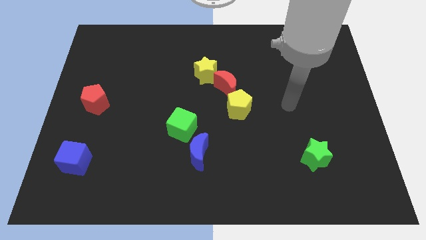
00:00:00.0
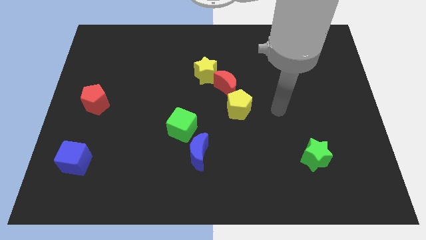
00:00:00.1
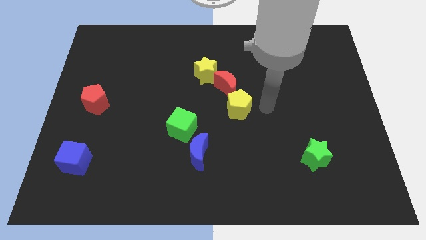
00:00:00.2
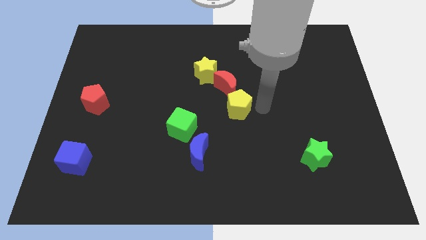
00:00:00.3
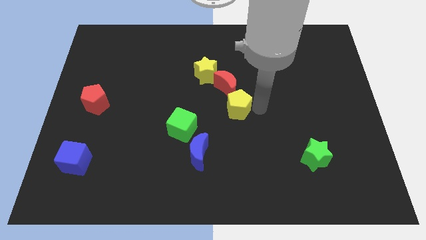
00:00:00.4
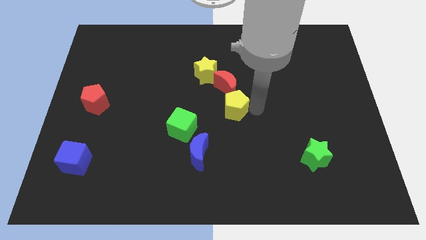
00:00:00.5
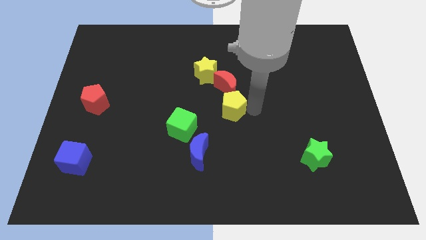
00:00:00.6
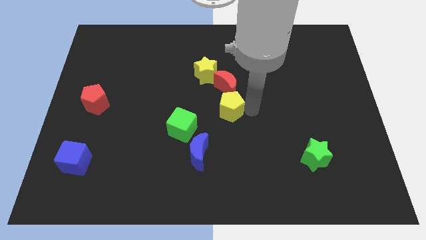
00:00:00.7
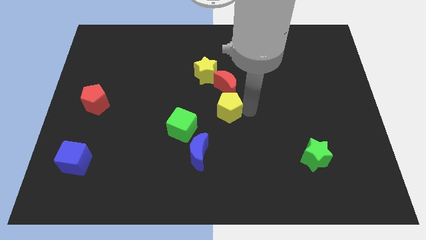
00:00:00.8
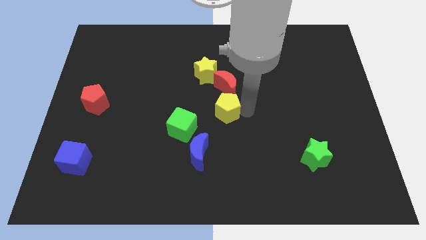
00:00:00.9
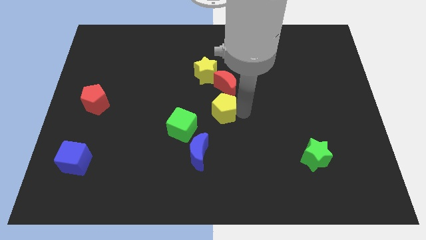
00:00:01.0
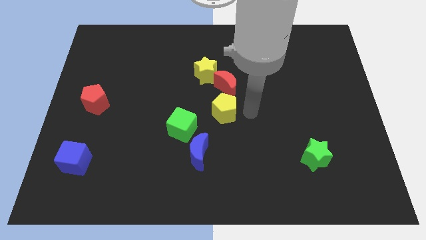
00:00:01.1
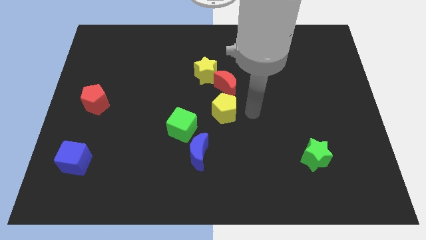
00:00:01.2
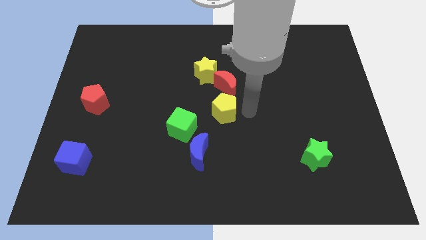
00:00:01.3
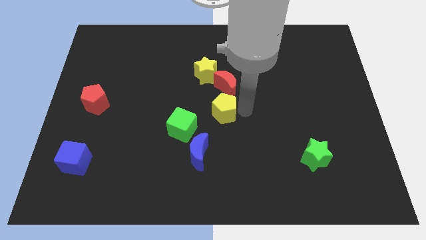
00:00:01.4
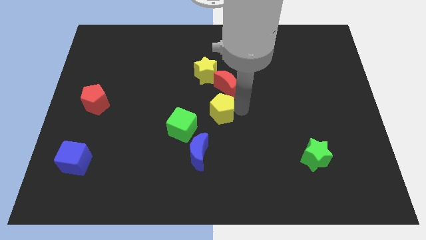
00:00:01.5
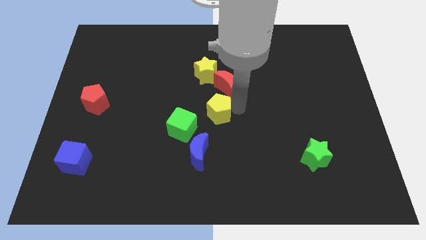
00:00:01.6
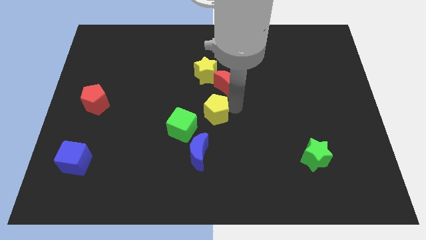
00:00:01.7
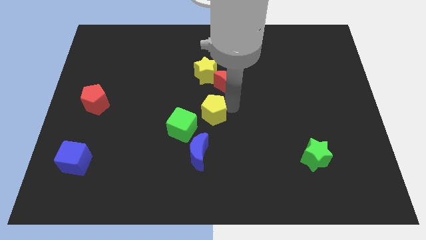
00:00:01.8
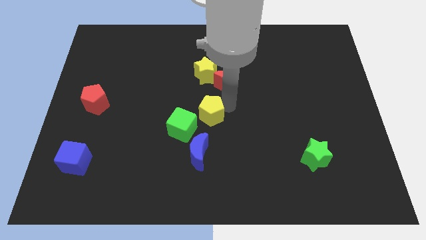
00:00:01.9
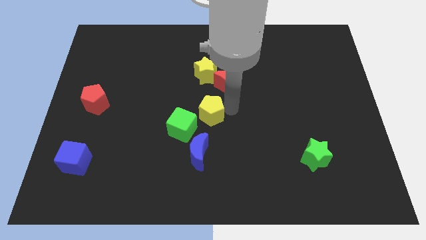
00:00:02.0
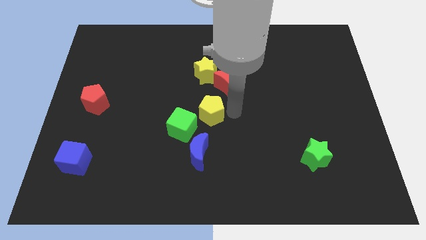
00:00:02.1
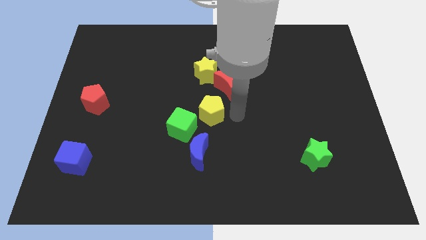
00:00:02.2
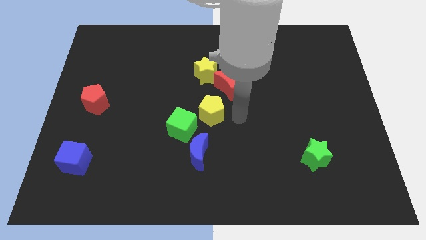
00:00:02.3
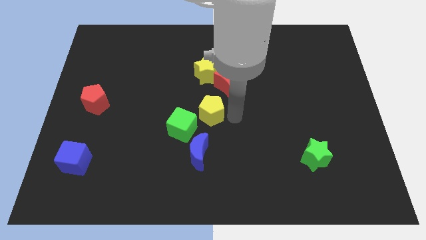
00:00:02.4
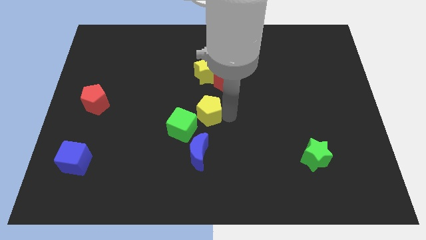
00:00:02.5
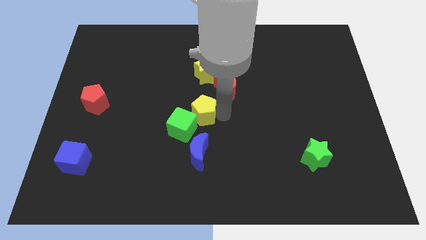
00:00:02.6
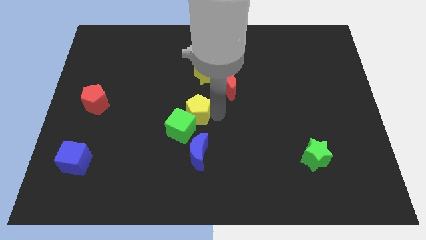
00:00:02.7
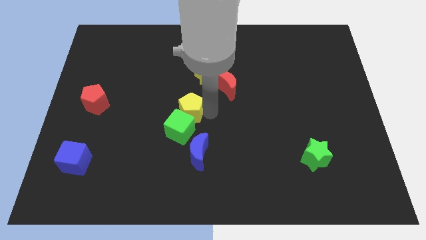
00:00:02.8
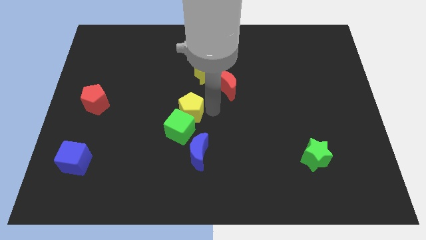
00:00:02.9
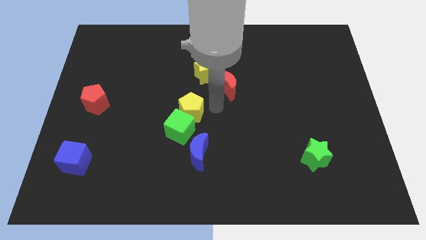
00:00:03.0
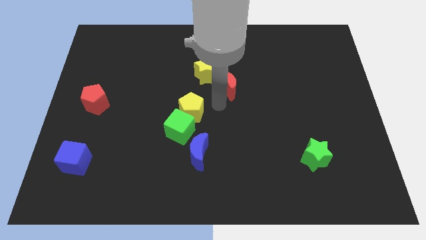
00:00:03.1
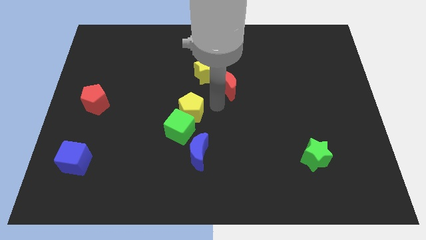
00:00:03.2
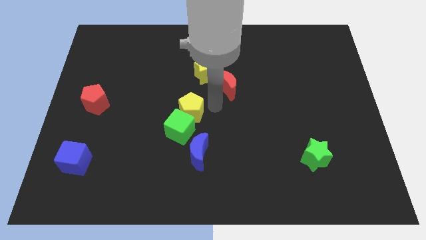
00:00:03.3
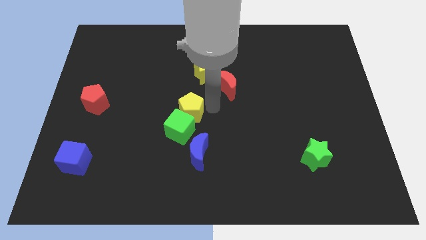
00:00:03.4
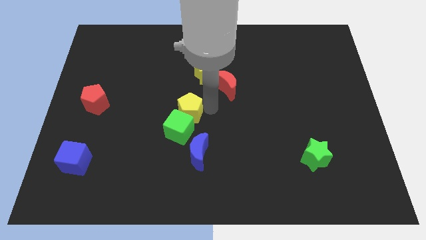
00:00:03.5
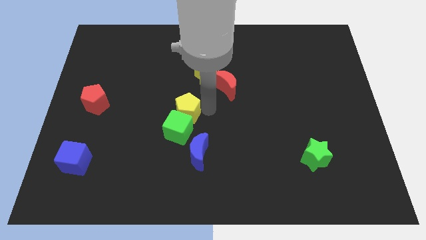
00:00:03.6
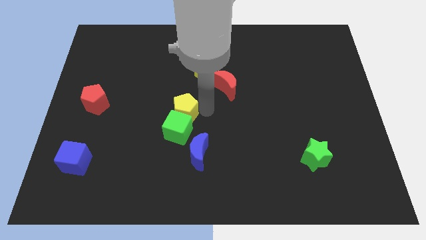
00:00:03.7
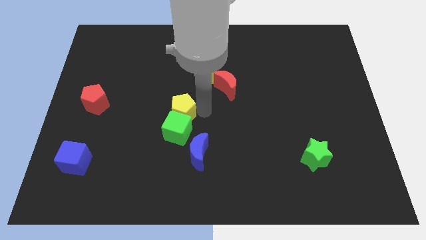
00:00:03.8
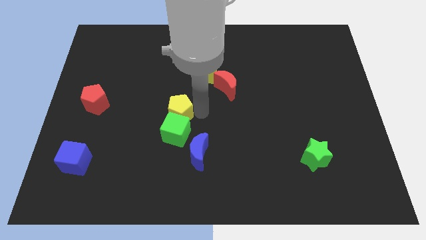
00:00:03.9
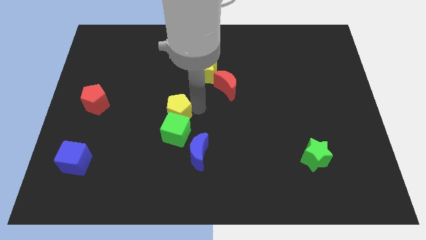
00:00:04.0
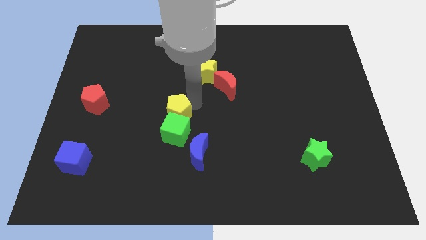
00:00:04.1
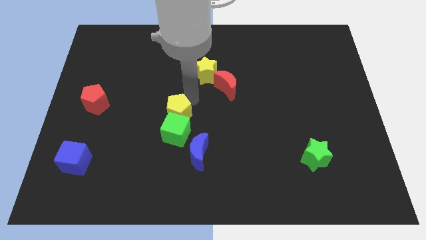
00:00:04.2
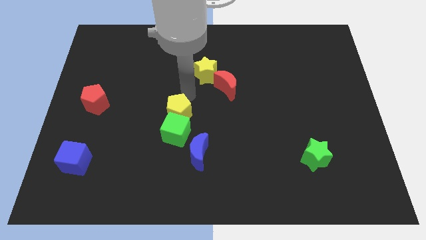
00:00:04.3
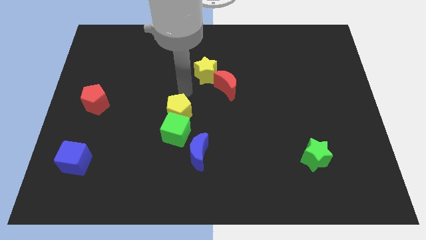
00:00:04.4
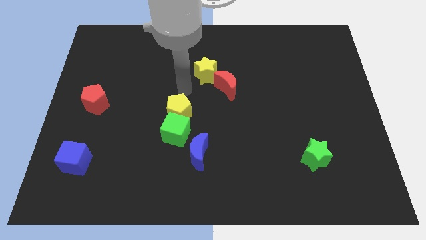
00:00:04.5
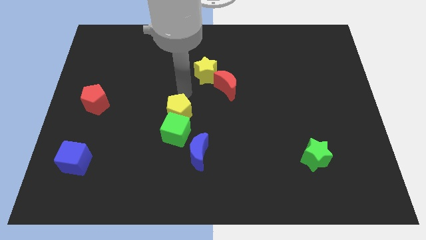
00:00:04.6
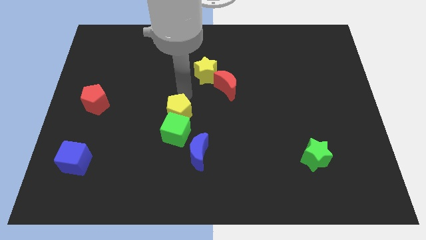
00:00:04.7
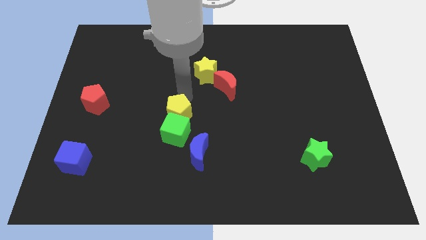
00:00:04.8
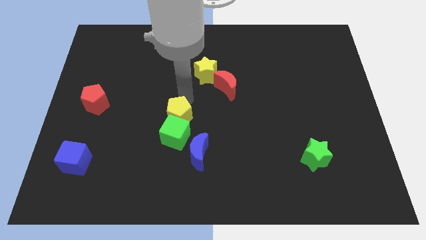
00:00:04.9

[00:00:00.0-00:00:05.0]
put the yellow pentagon to the top left of the blue moon

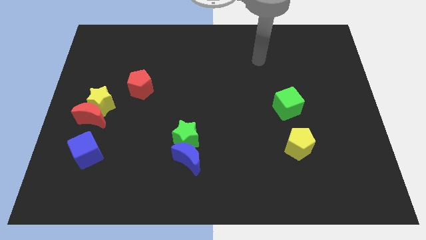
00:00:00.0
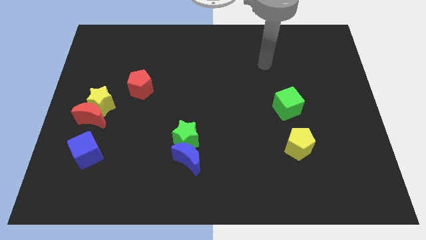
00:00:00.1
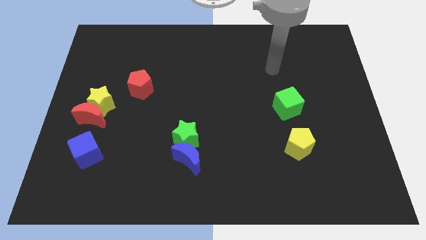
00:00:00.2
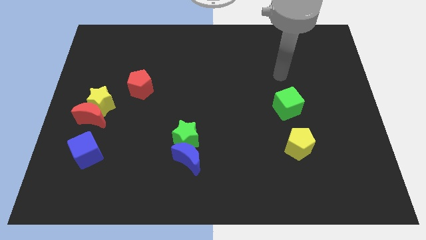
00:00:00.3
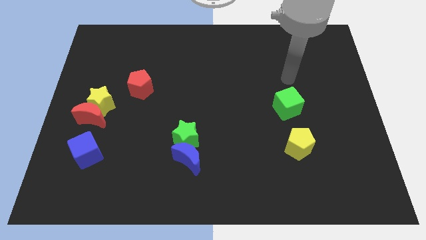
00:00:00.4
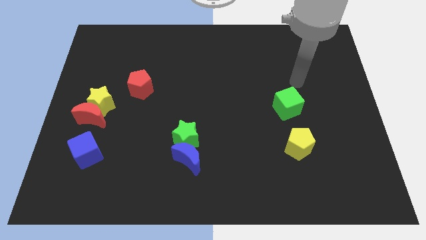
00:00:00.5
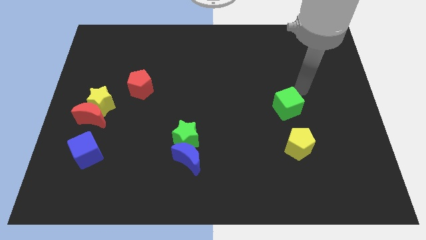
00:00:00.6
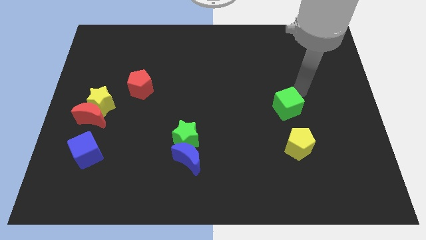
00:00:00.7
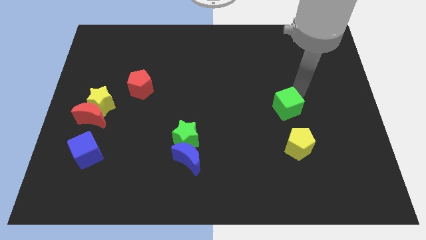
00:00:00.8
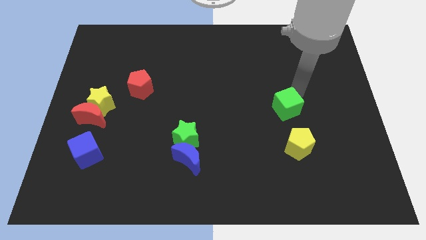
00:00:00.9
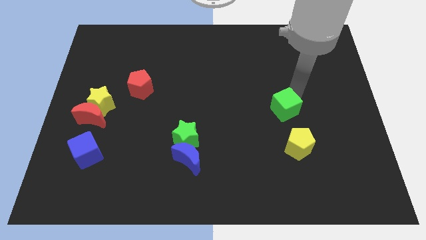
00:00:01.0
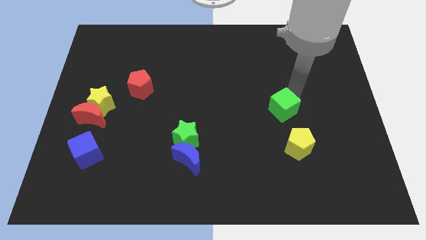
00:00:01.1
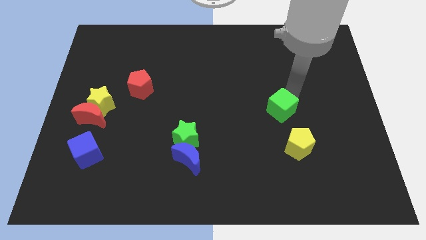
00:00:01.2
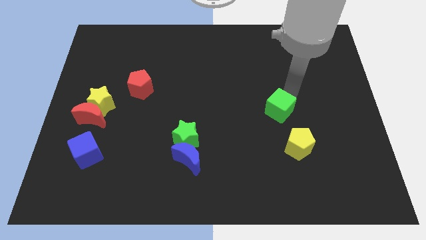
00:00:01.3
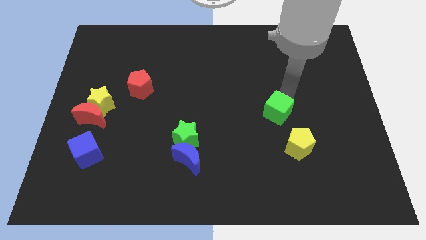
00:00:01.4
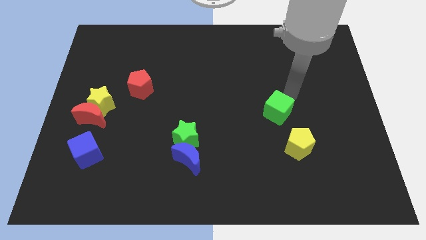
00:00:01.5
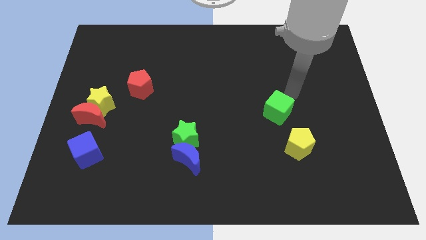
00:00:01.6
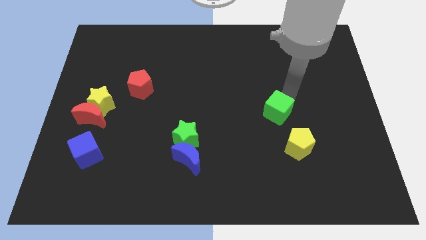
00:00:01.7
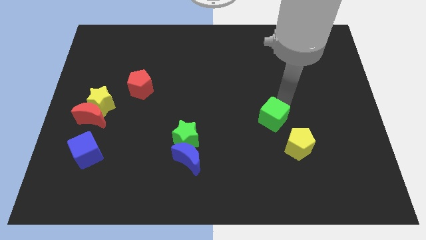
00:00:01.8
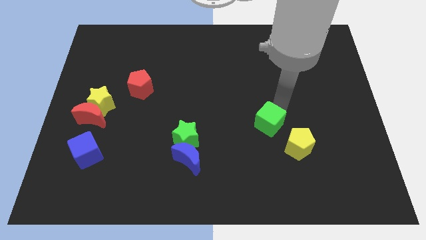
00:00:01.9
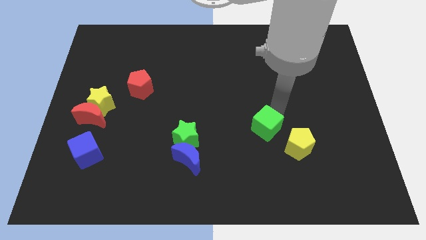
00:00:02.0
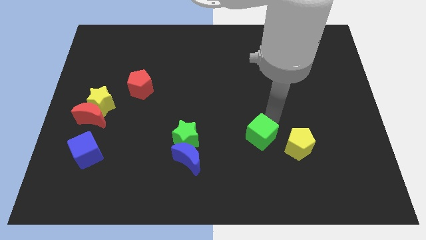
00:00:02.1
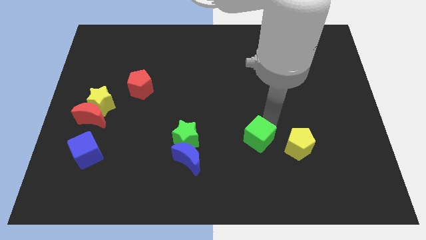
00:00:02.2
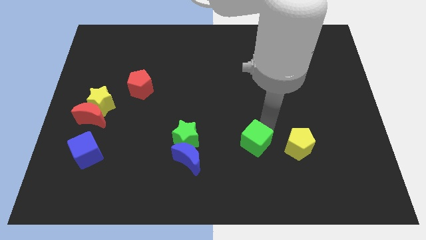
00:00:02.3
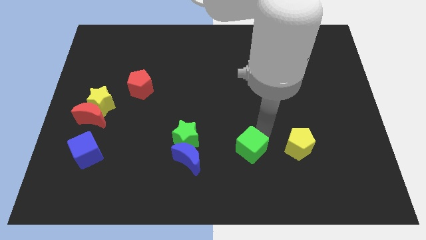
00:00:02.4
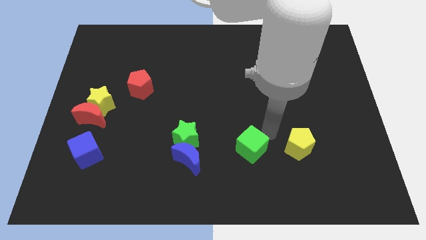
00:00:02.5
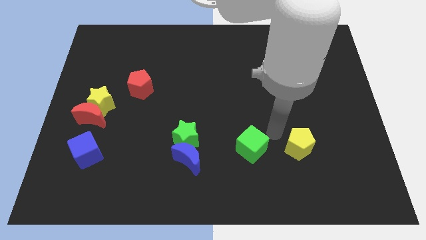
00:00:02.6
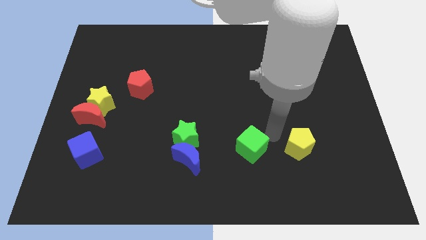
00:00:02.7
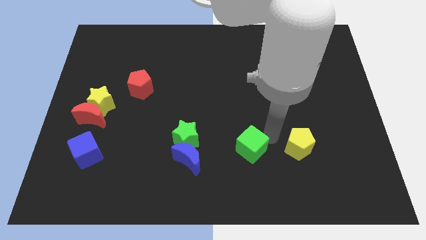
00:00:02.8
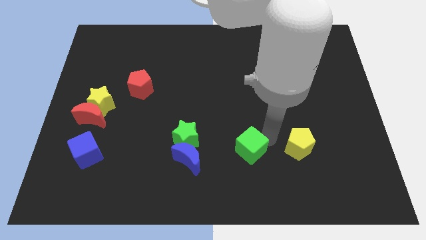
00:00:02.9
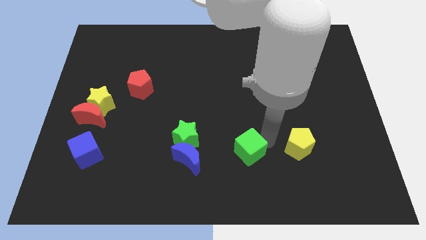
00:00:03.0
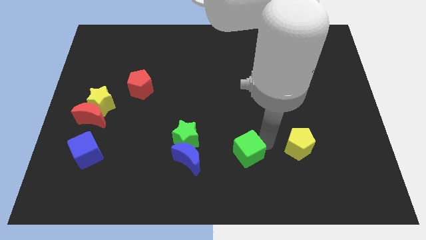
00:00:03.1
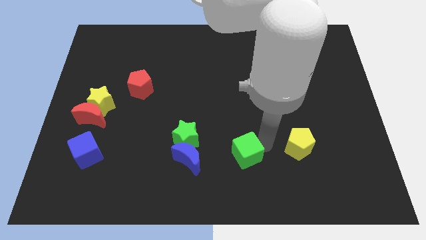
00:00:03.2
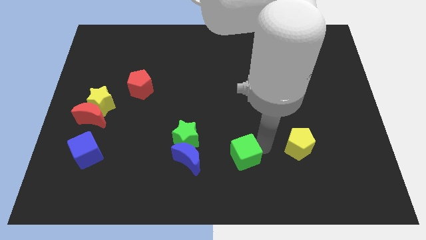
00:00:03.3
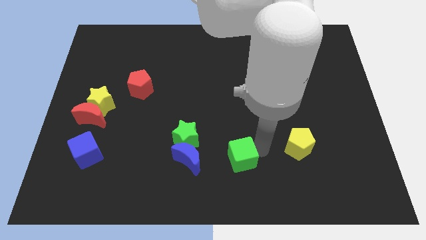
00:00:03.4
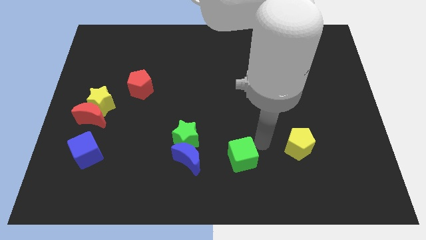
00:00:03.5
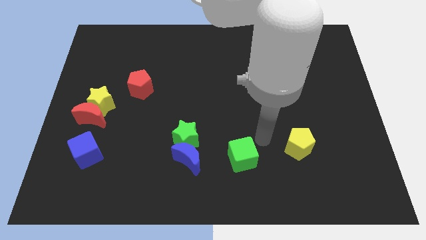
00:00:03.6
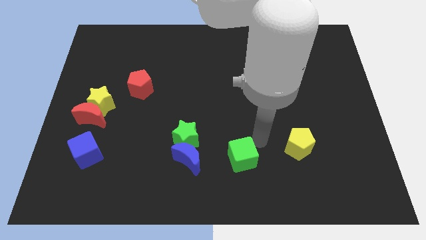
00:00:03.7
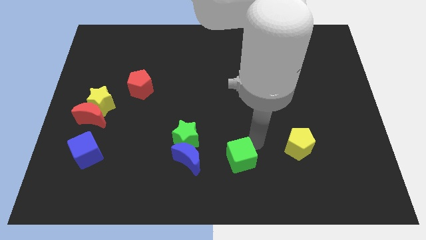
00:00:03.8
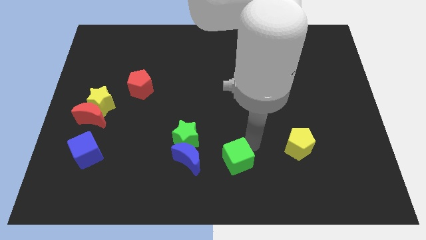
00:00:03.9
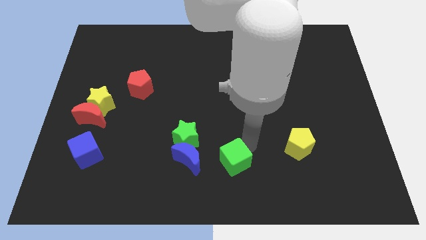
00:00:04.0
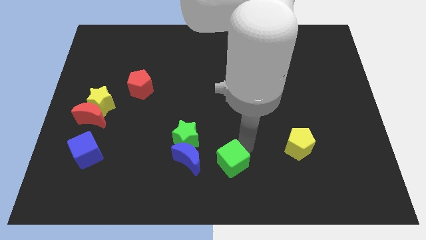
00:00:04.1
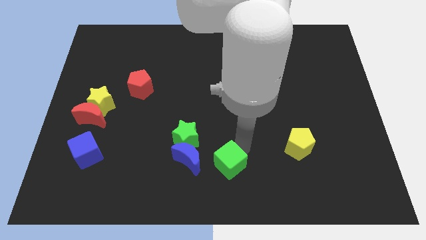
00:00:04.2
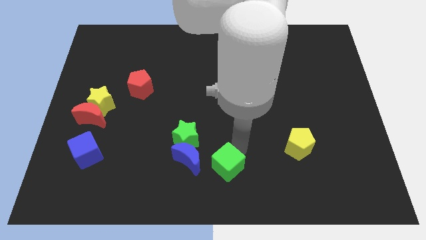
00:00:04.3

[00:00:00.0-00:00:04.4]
move the green cube to the bottom right of the blue moon
